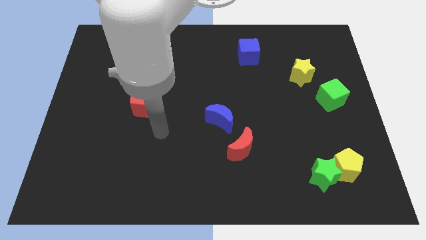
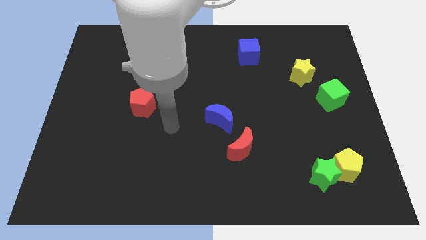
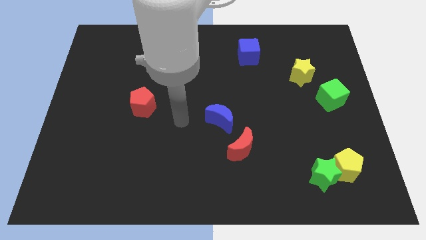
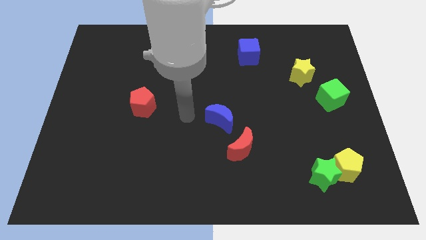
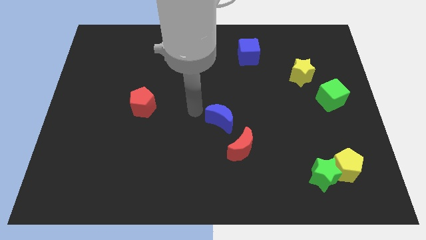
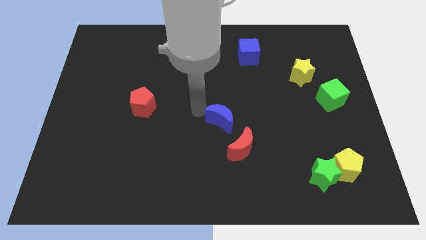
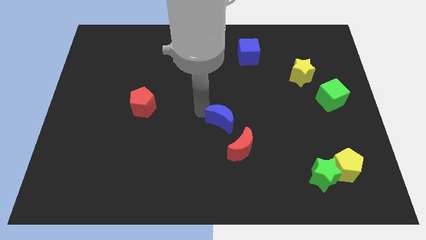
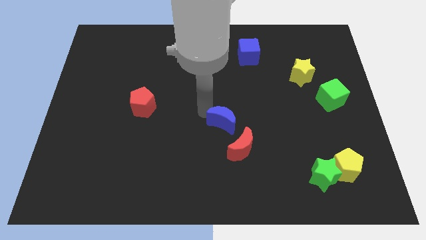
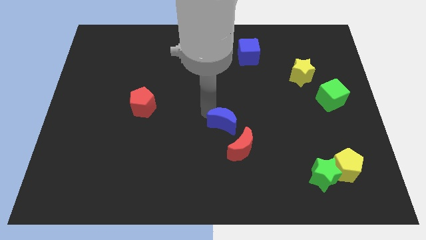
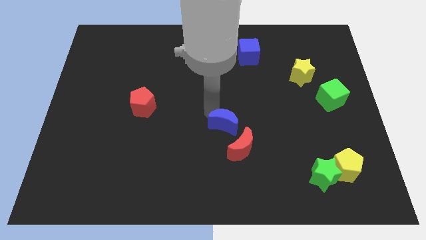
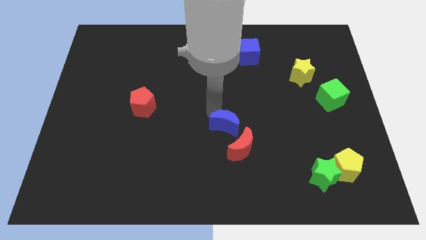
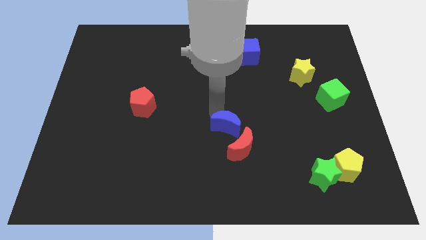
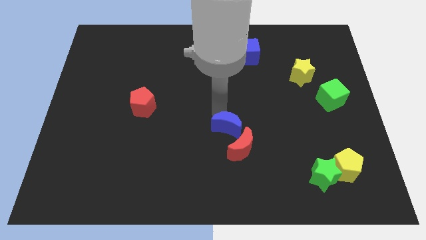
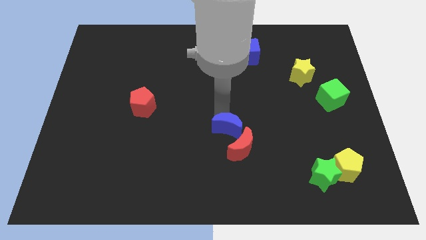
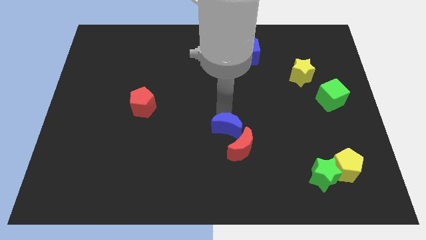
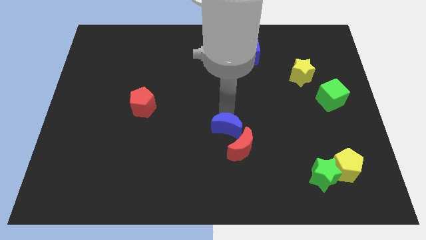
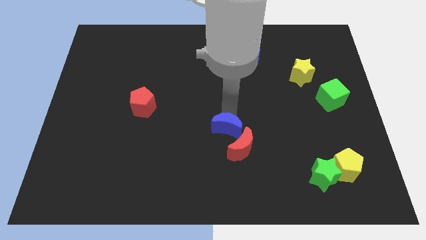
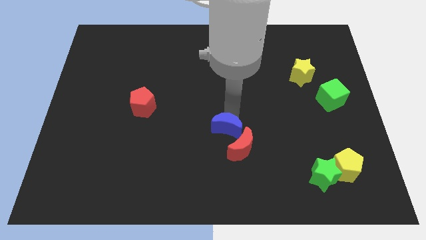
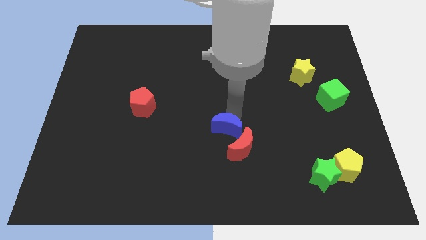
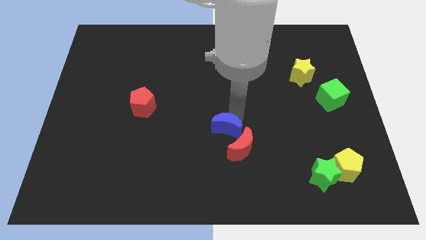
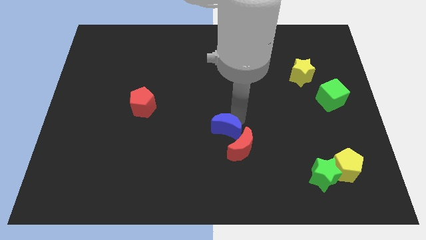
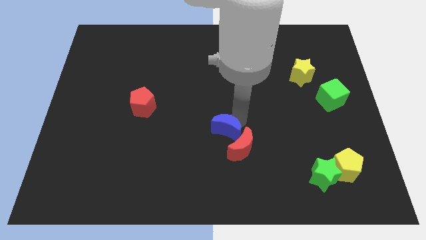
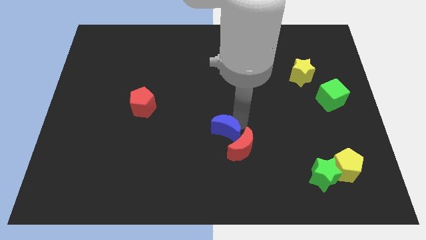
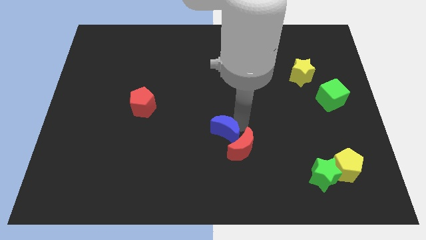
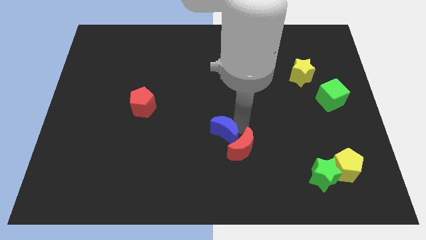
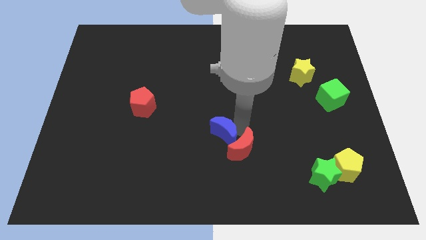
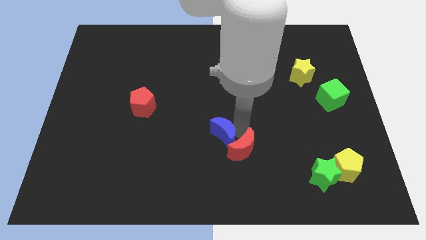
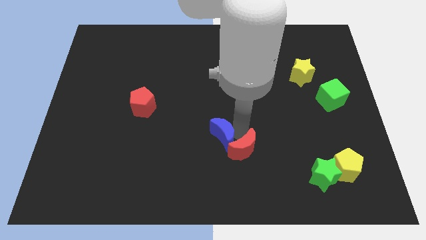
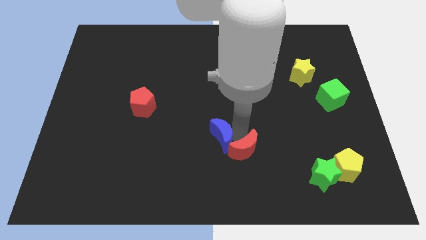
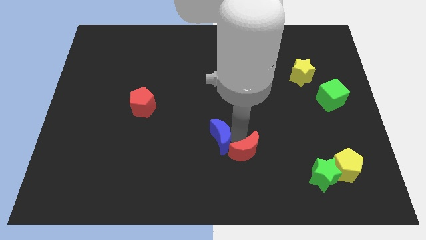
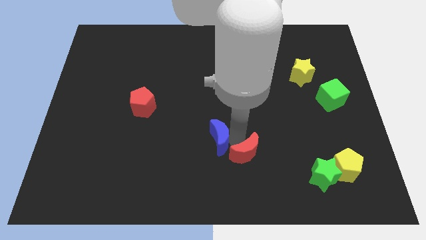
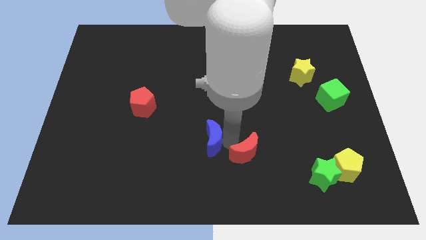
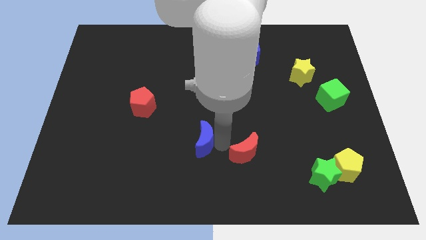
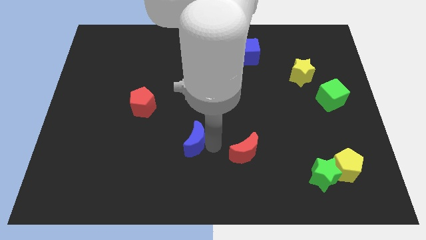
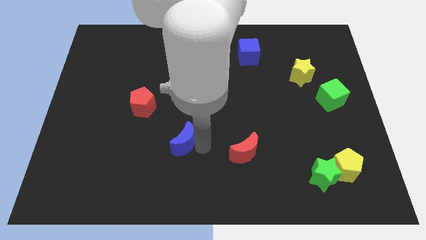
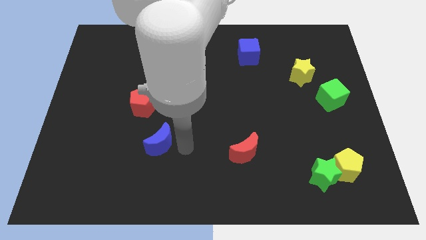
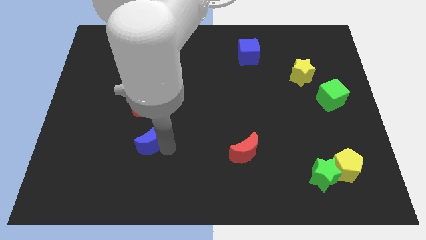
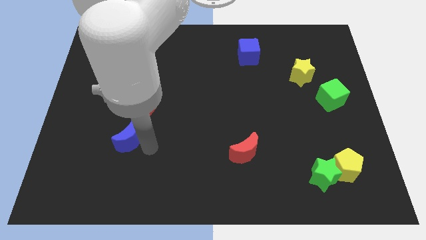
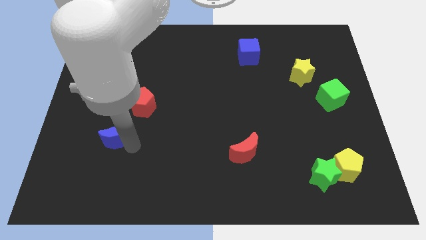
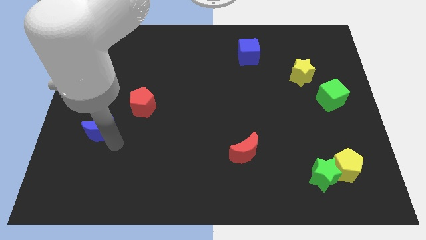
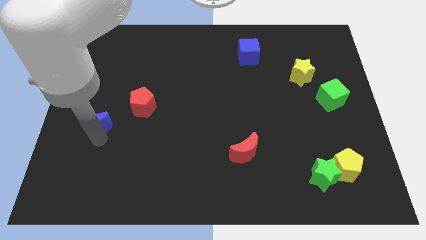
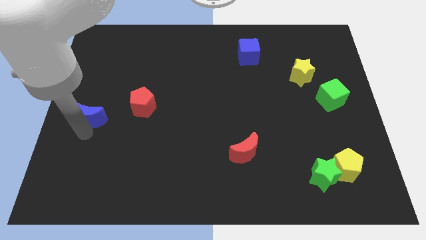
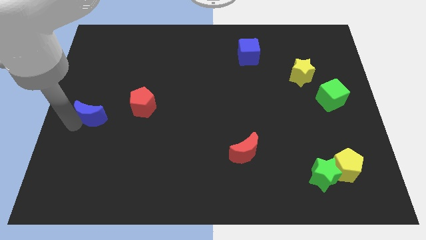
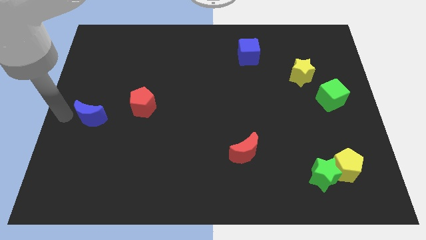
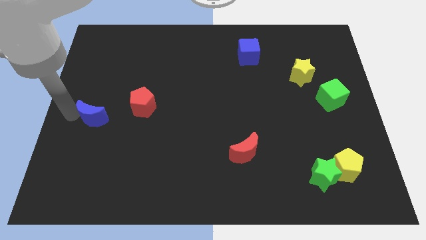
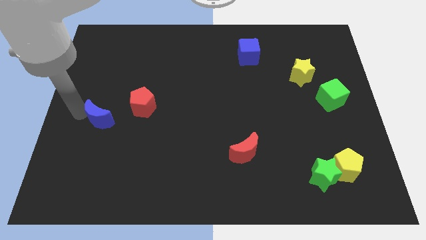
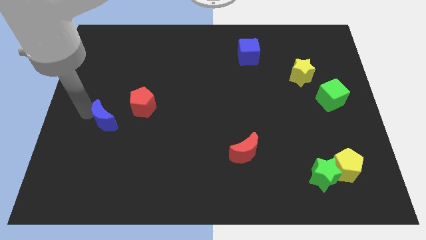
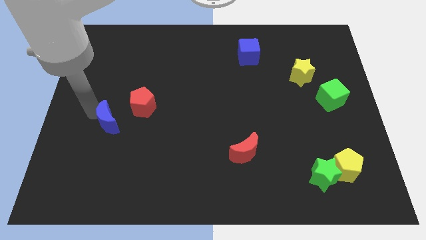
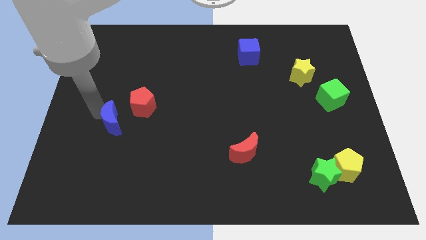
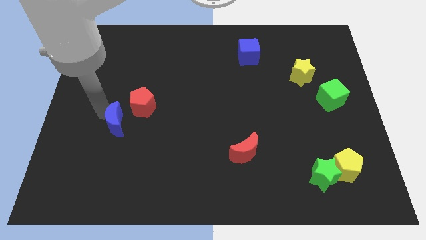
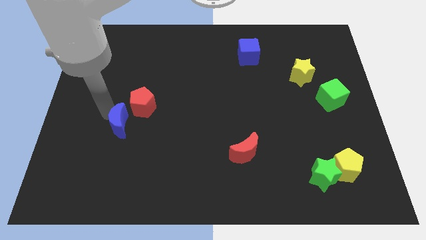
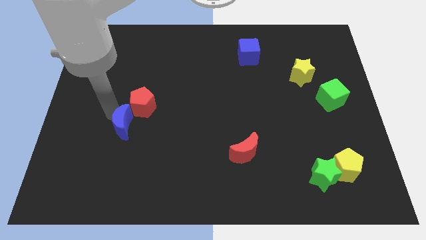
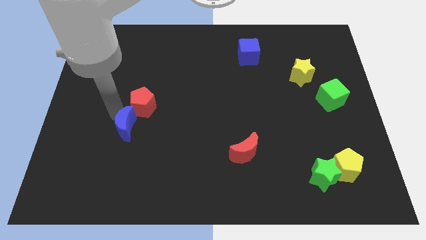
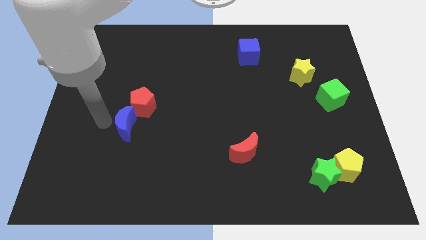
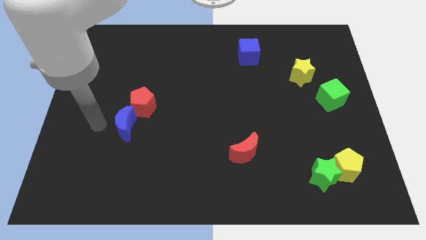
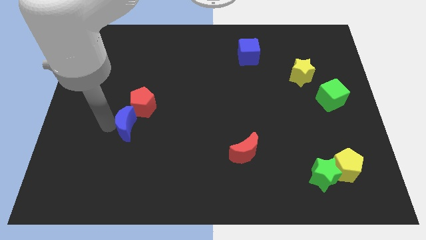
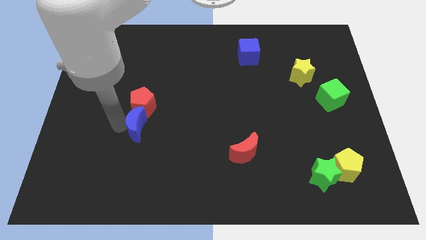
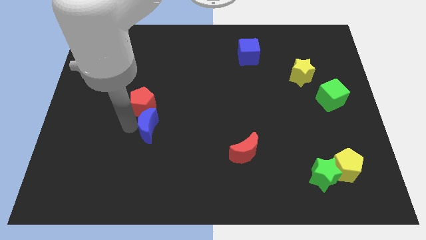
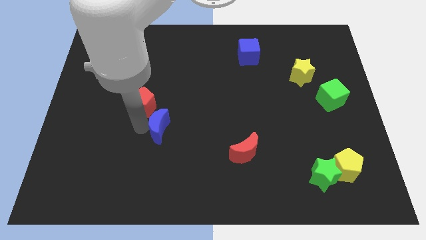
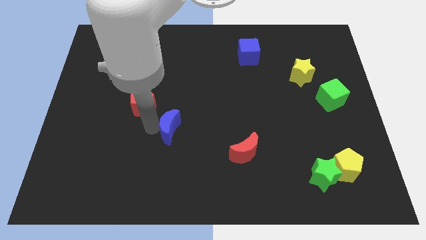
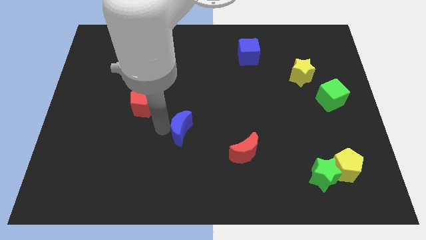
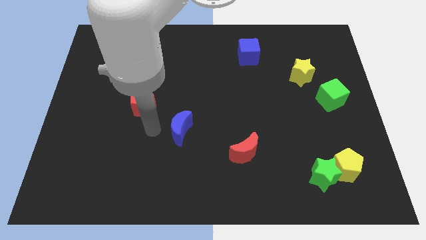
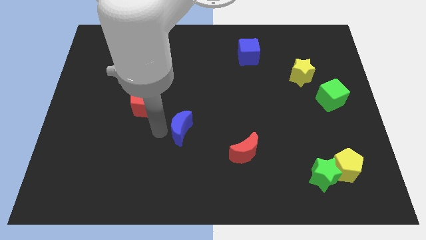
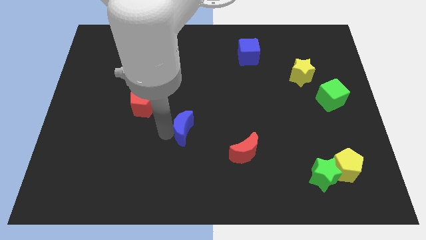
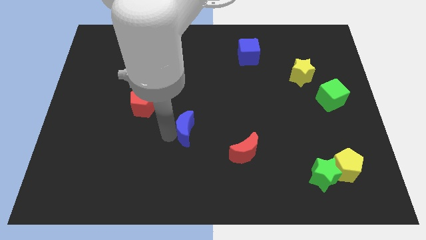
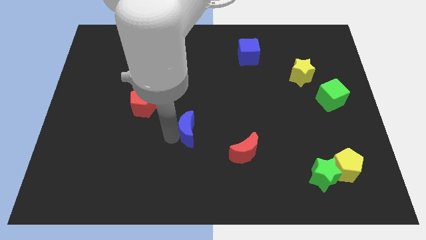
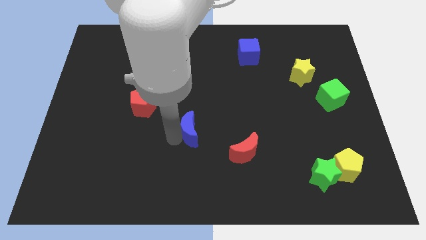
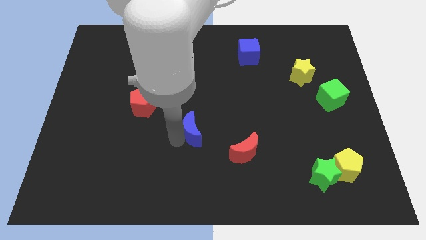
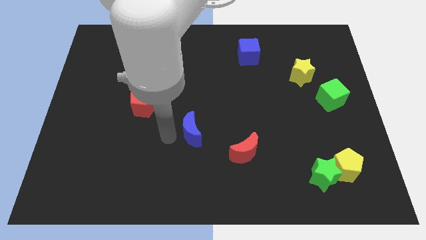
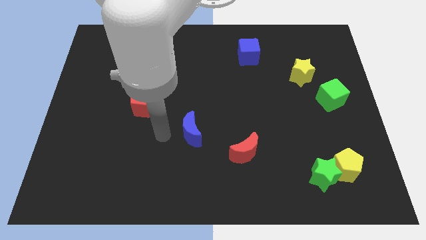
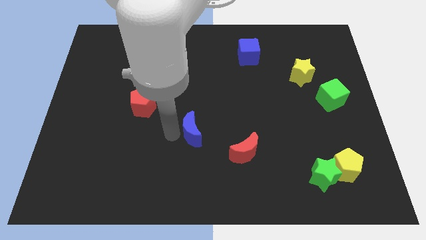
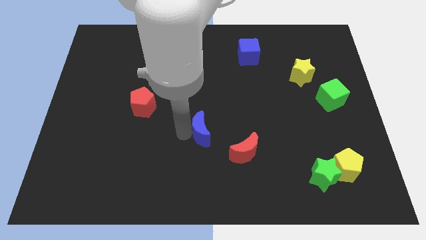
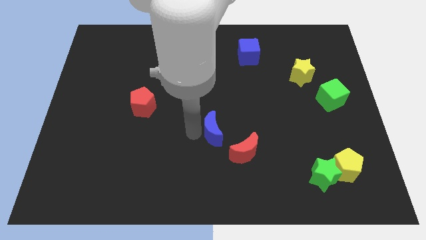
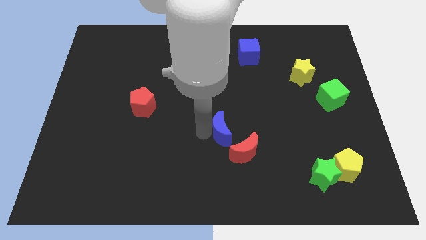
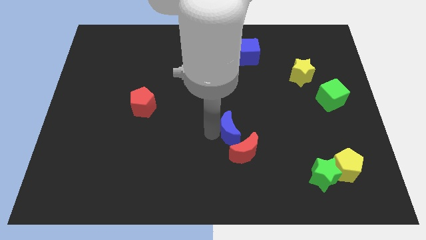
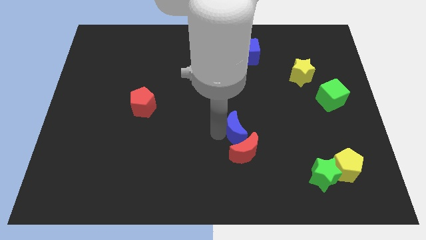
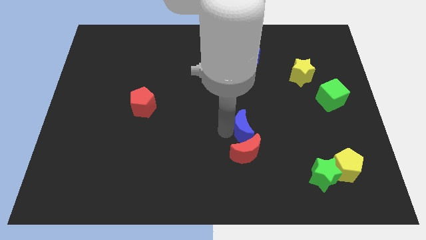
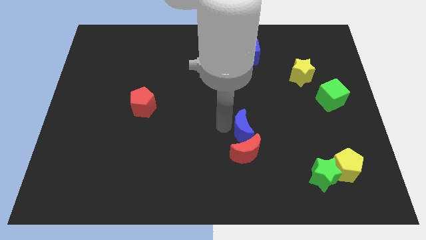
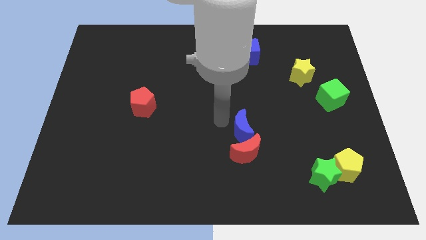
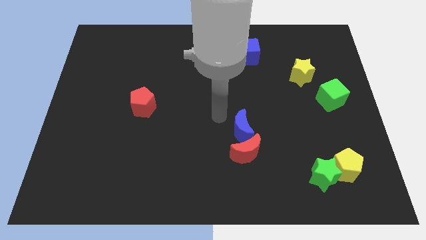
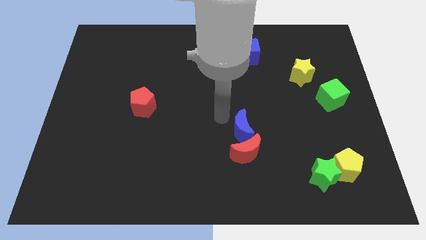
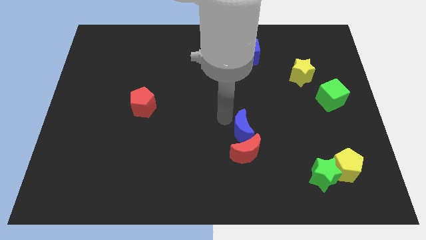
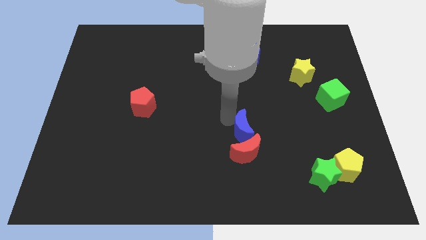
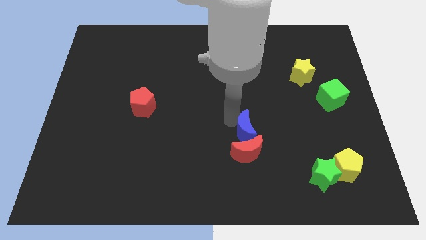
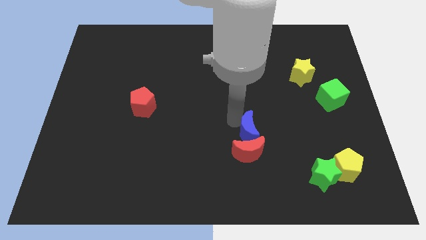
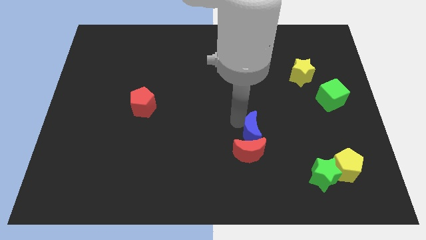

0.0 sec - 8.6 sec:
slide the blue moon slightly downwards and right
